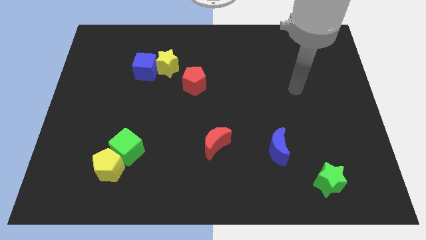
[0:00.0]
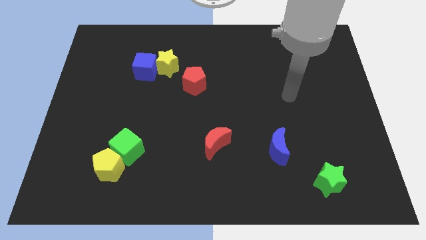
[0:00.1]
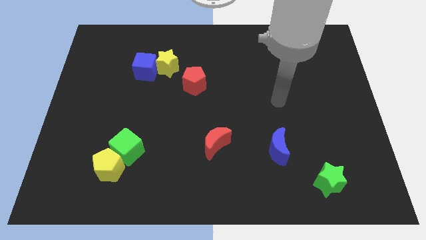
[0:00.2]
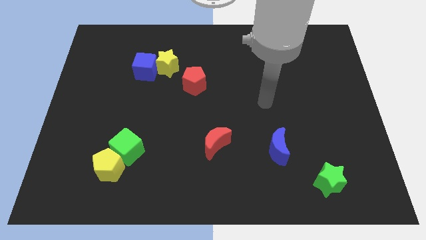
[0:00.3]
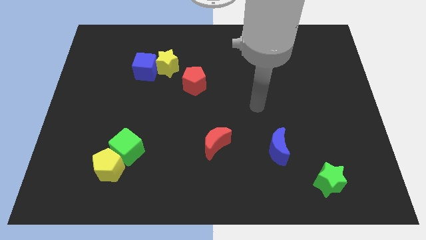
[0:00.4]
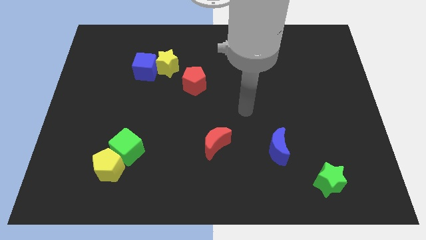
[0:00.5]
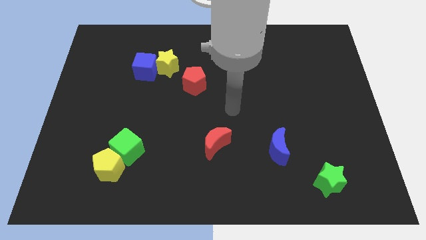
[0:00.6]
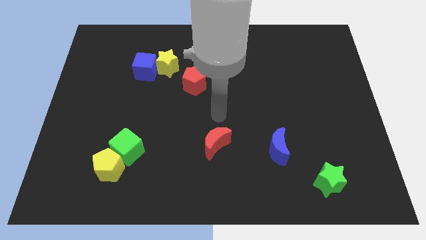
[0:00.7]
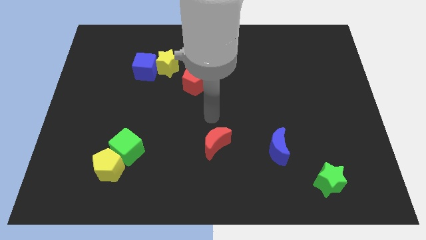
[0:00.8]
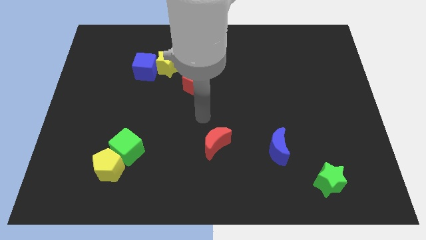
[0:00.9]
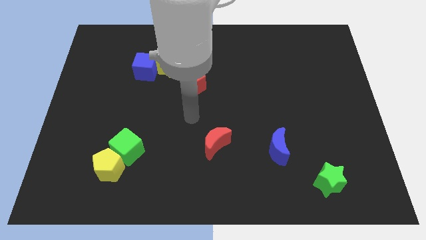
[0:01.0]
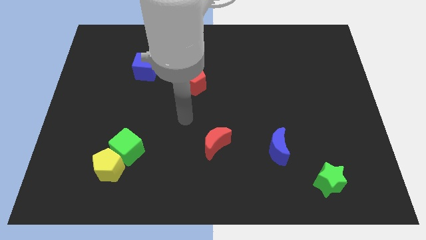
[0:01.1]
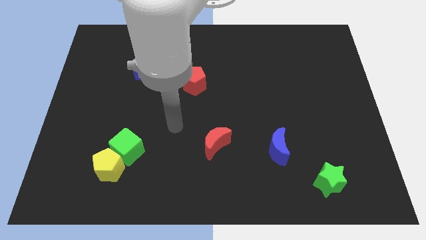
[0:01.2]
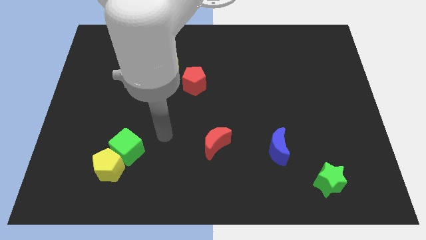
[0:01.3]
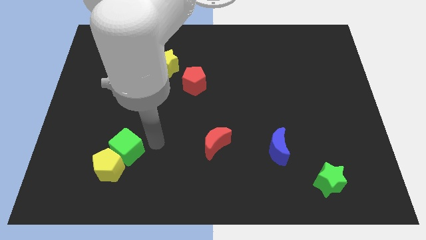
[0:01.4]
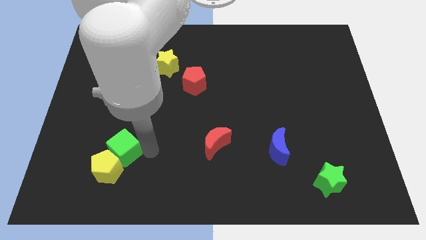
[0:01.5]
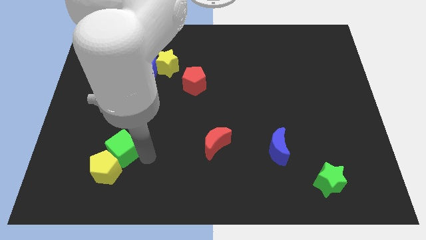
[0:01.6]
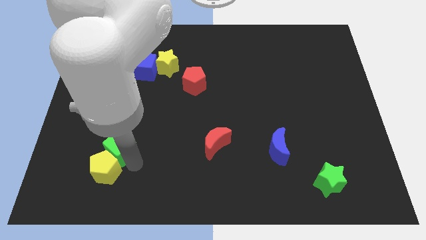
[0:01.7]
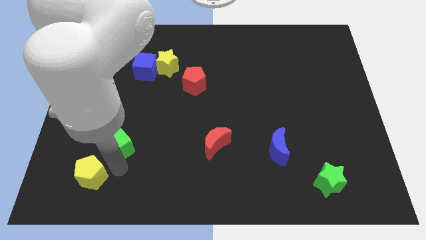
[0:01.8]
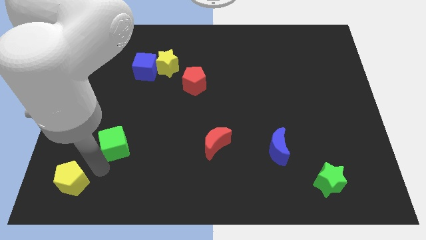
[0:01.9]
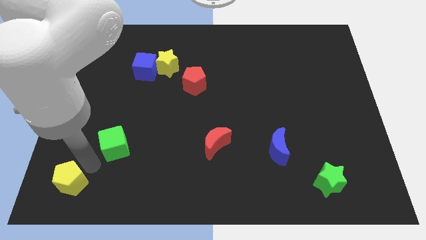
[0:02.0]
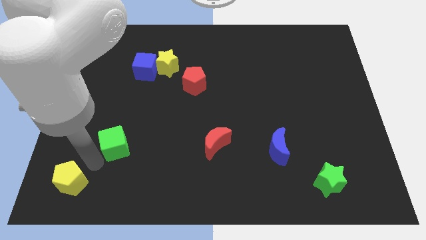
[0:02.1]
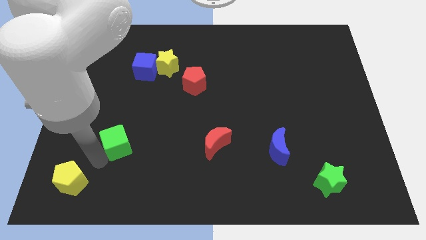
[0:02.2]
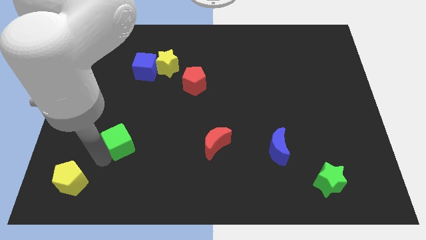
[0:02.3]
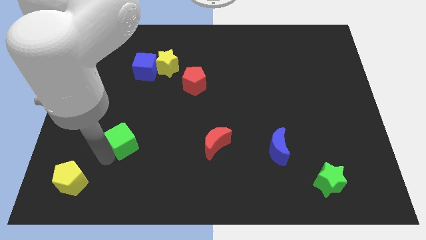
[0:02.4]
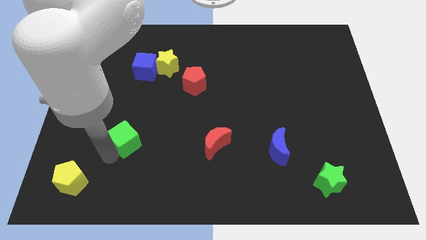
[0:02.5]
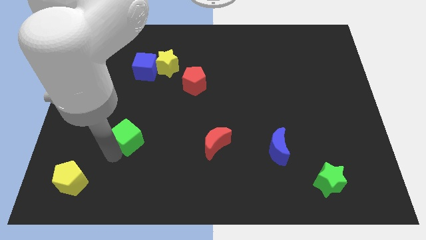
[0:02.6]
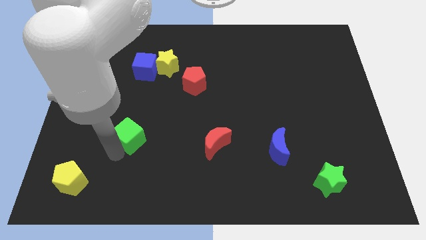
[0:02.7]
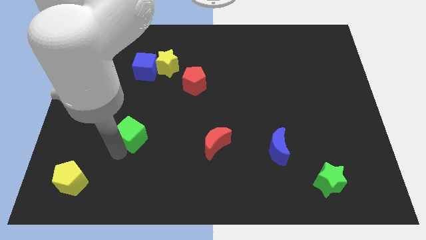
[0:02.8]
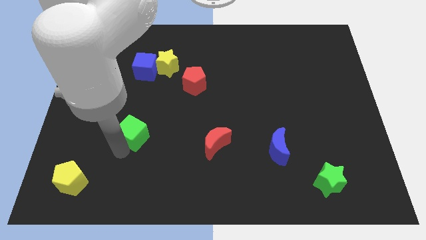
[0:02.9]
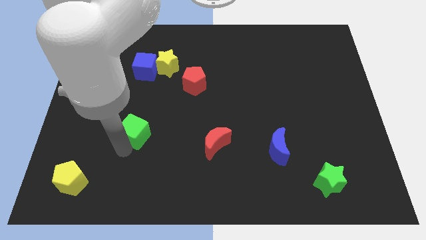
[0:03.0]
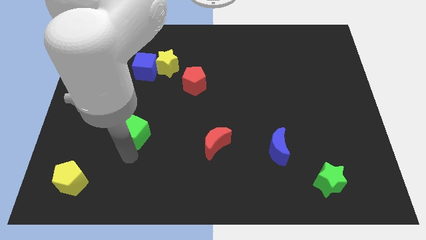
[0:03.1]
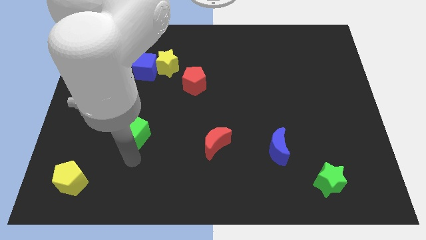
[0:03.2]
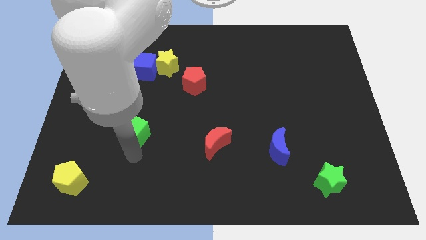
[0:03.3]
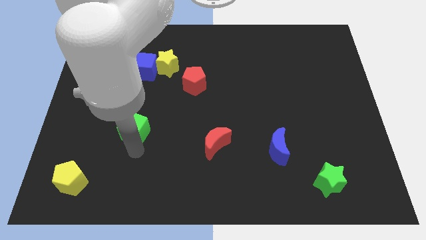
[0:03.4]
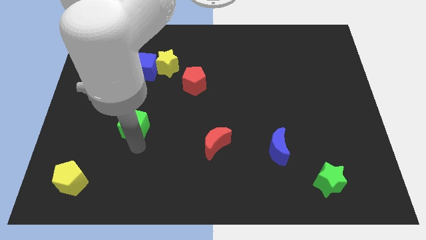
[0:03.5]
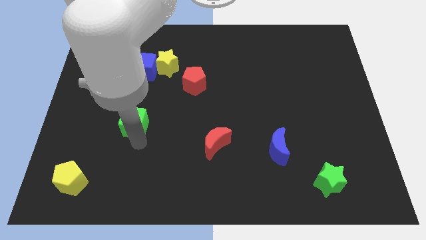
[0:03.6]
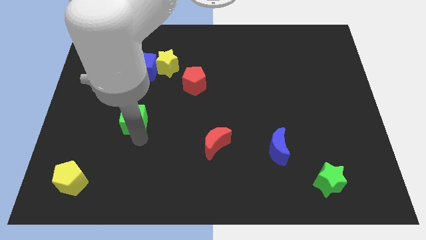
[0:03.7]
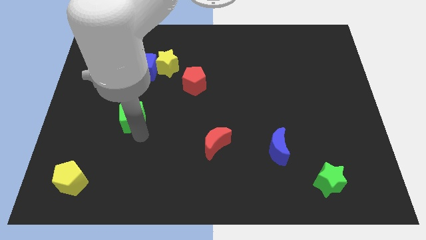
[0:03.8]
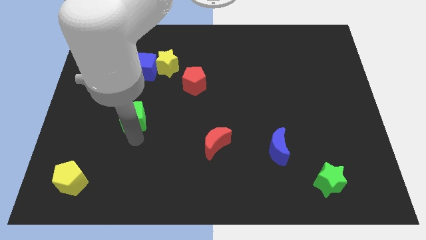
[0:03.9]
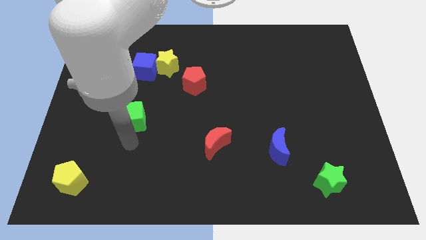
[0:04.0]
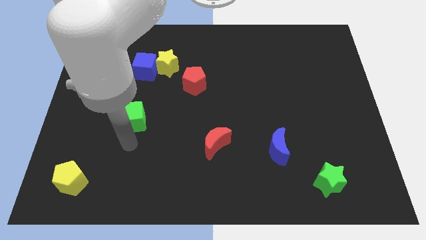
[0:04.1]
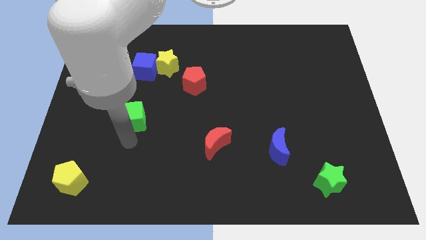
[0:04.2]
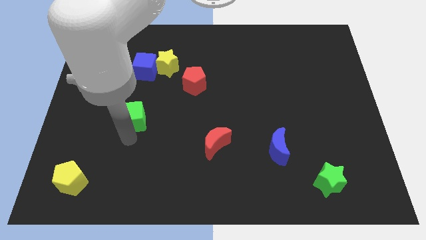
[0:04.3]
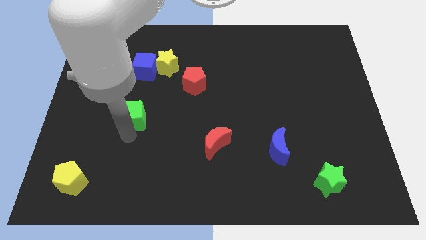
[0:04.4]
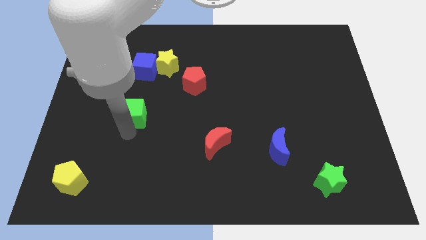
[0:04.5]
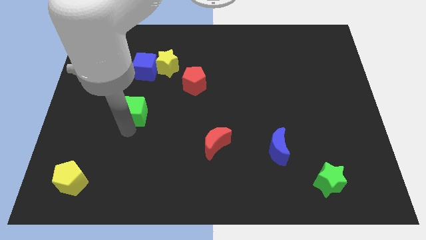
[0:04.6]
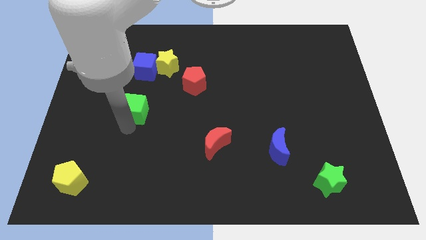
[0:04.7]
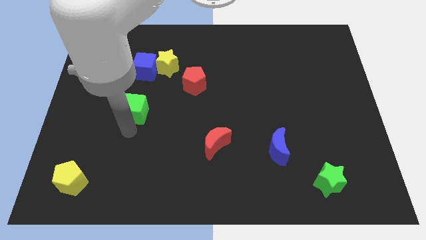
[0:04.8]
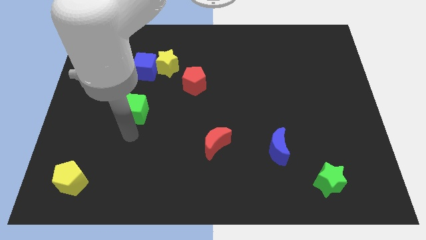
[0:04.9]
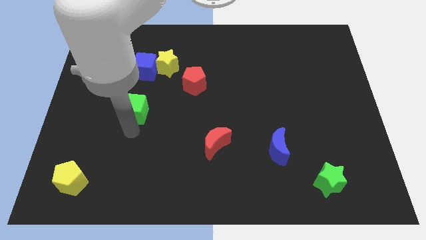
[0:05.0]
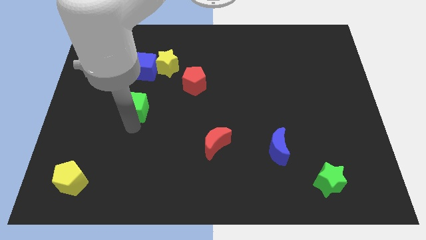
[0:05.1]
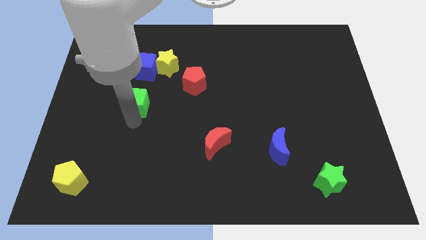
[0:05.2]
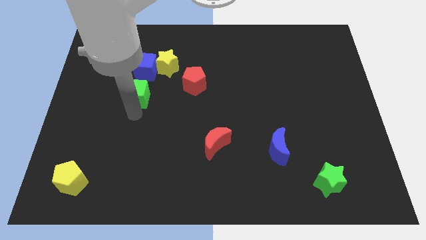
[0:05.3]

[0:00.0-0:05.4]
push the green cube to the bottom left side of the yellow star

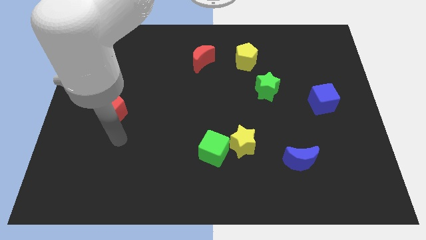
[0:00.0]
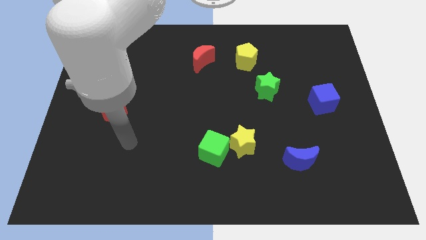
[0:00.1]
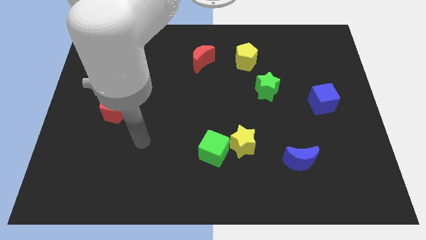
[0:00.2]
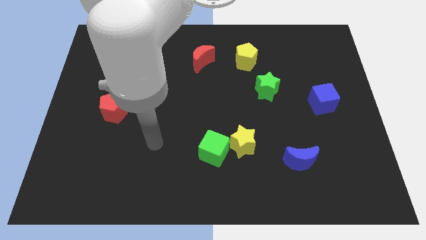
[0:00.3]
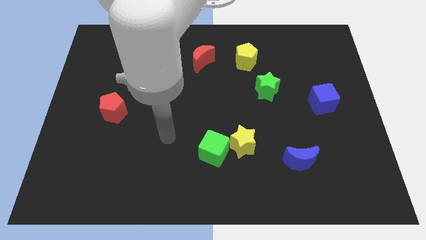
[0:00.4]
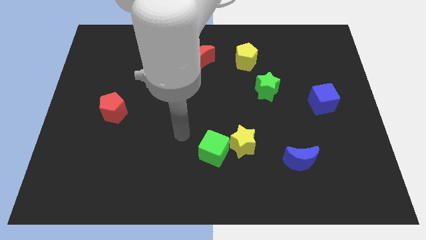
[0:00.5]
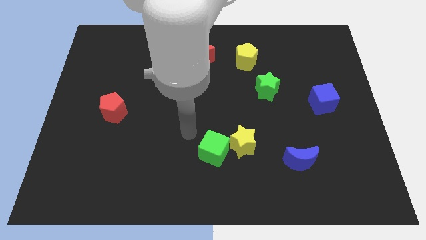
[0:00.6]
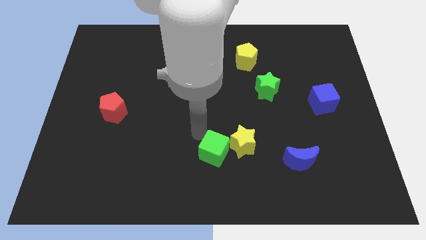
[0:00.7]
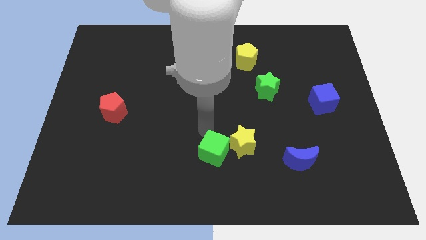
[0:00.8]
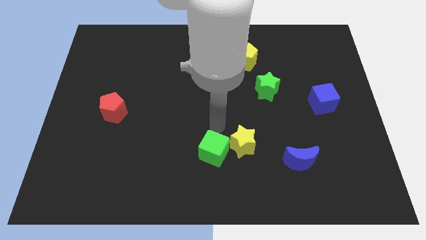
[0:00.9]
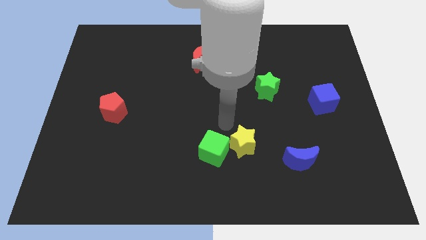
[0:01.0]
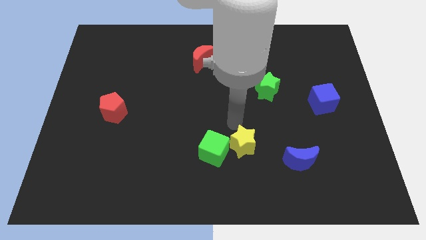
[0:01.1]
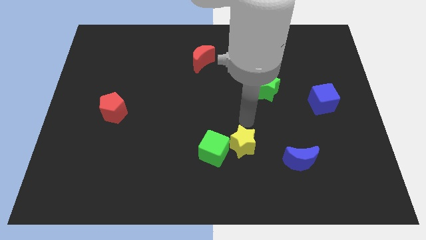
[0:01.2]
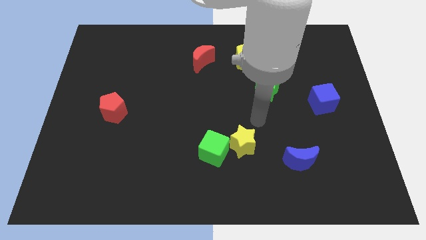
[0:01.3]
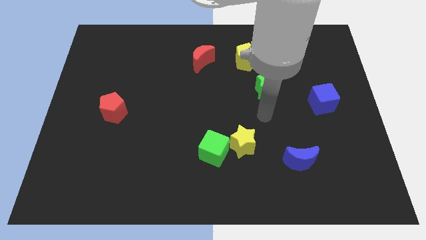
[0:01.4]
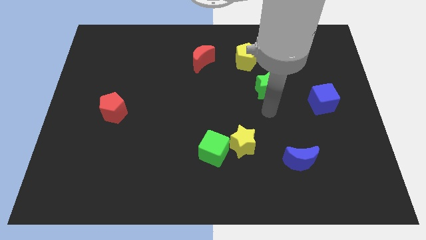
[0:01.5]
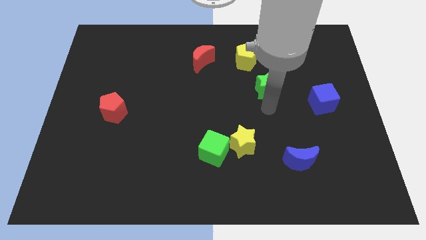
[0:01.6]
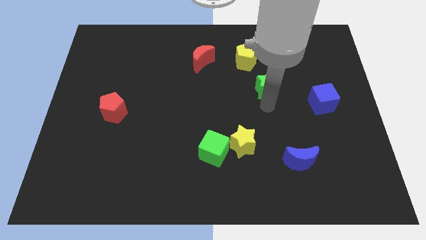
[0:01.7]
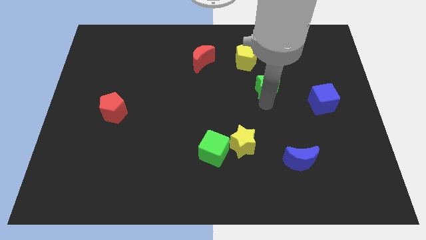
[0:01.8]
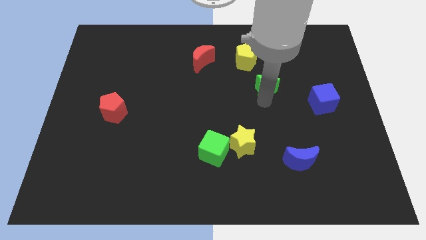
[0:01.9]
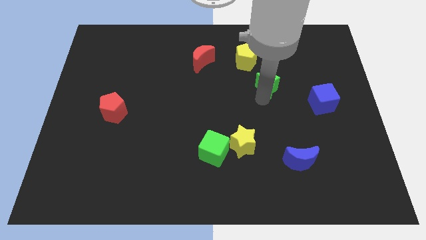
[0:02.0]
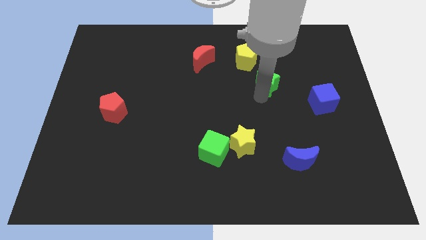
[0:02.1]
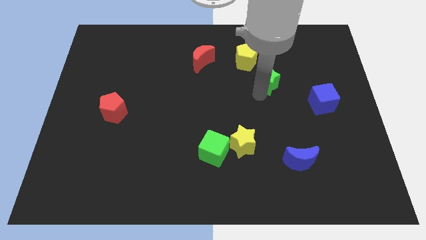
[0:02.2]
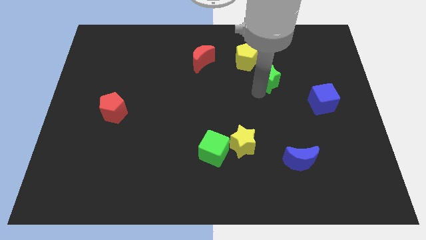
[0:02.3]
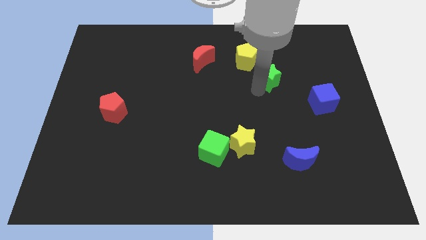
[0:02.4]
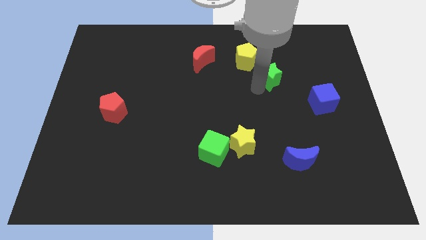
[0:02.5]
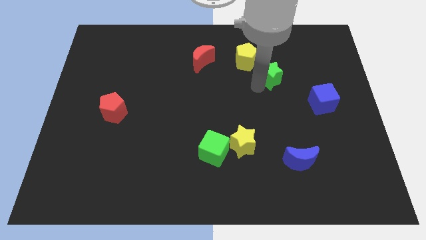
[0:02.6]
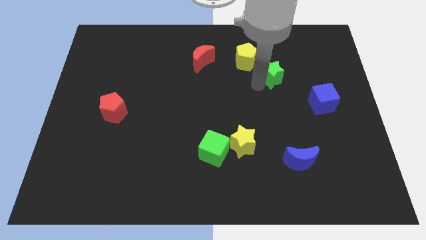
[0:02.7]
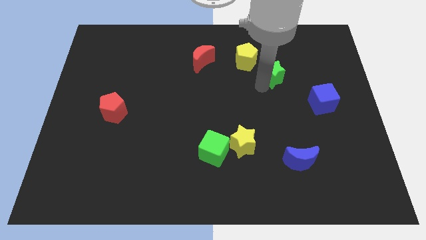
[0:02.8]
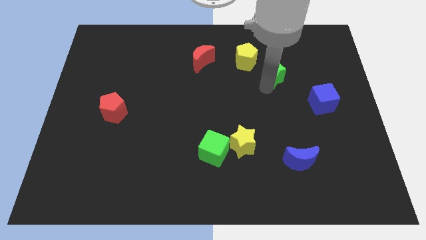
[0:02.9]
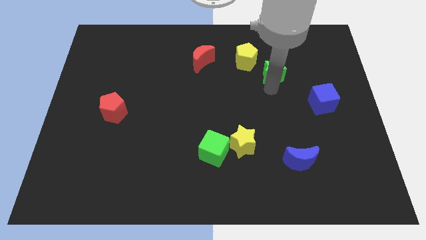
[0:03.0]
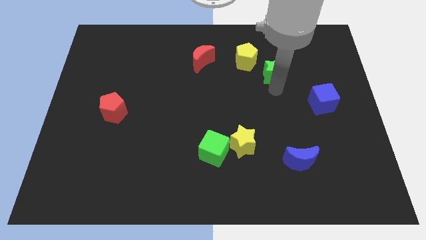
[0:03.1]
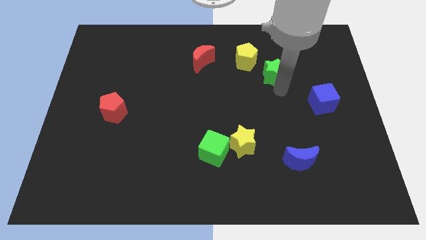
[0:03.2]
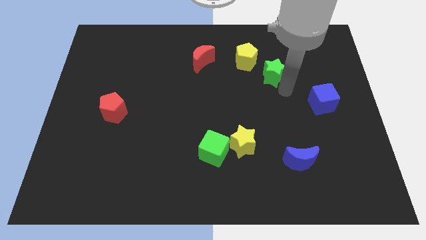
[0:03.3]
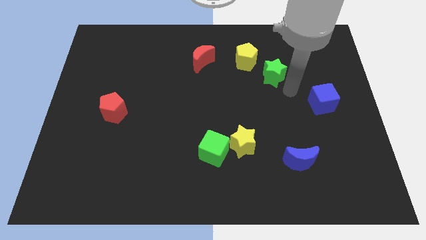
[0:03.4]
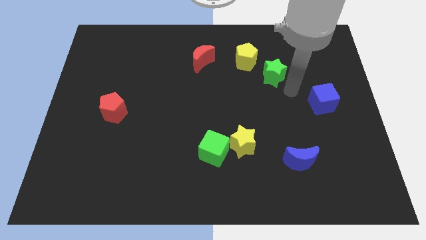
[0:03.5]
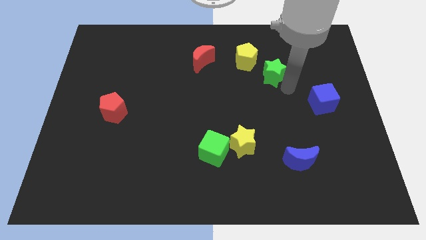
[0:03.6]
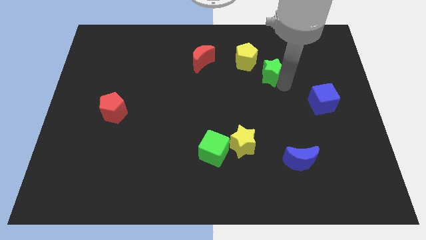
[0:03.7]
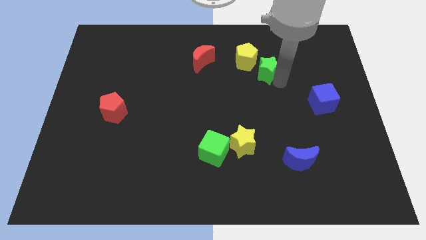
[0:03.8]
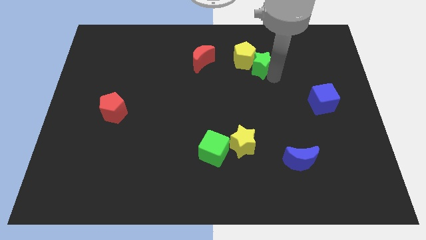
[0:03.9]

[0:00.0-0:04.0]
put the green star to the right side of the red moon
